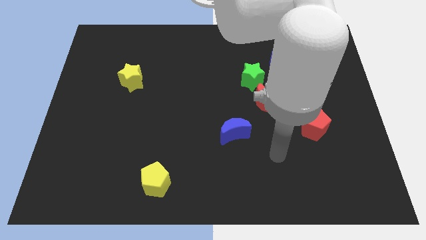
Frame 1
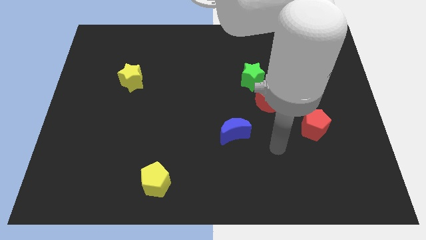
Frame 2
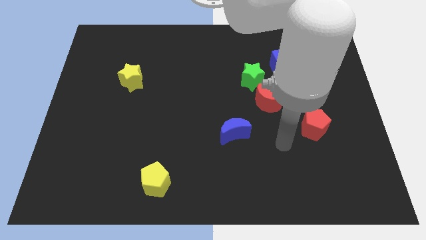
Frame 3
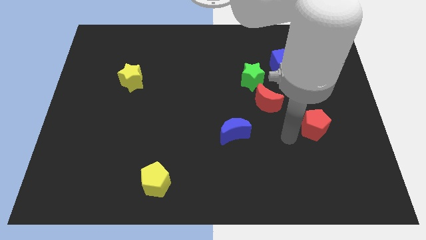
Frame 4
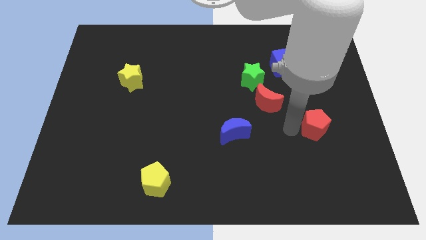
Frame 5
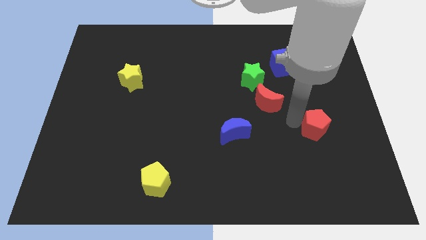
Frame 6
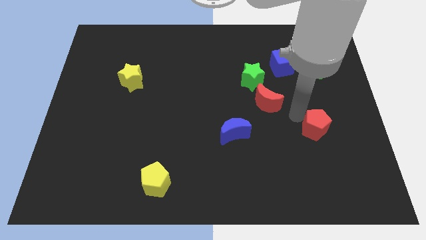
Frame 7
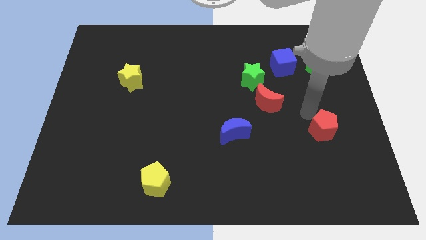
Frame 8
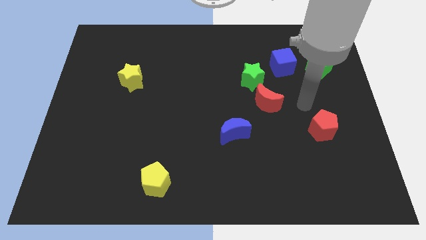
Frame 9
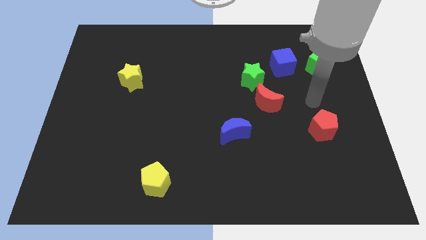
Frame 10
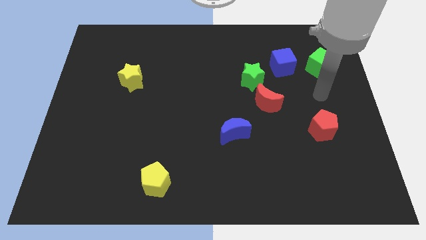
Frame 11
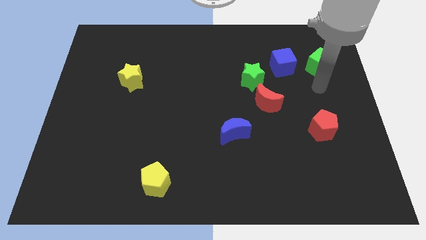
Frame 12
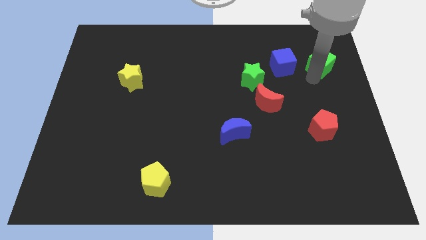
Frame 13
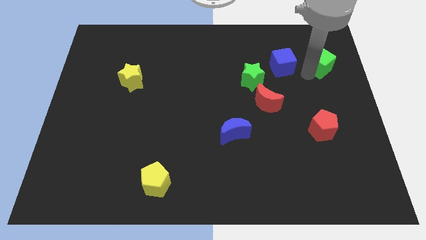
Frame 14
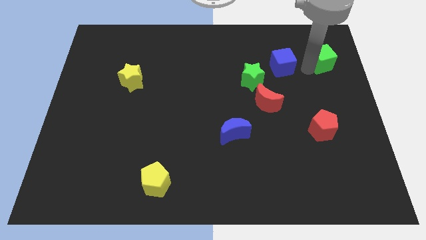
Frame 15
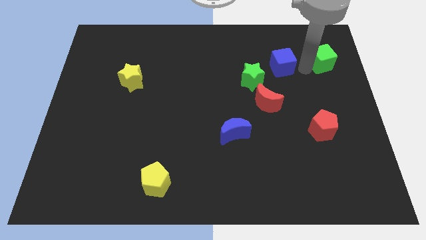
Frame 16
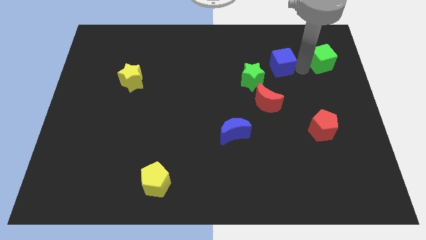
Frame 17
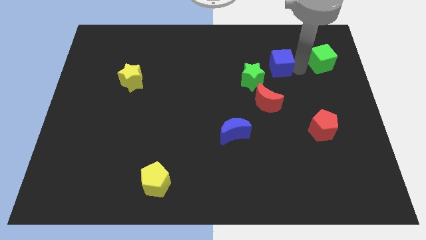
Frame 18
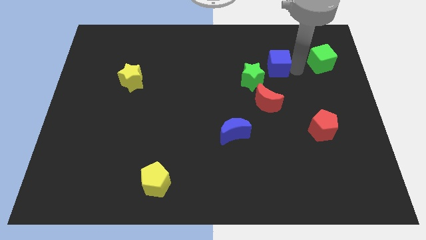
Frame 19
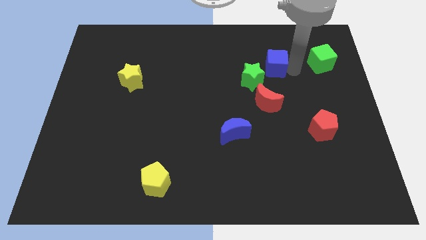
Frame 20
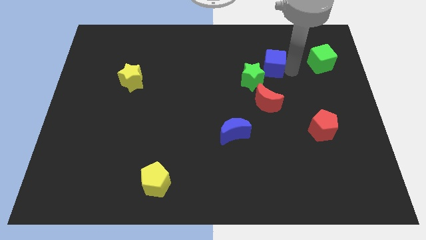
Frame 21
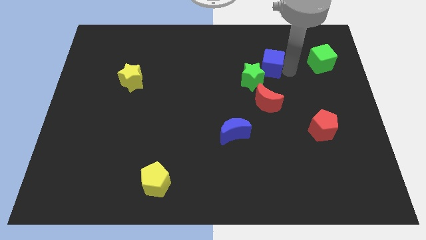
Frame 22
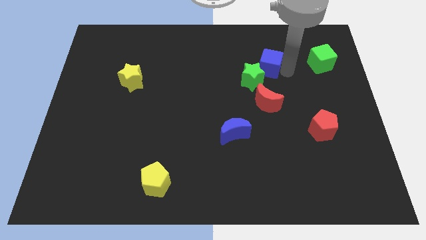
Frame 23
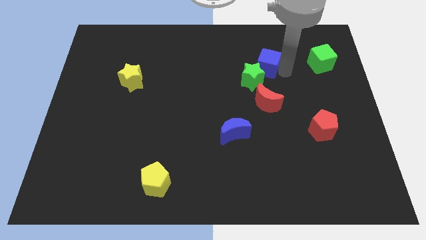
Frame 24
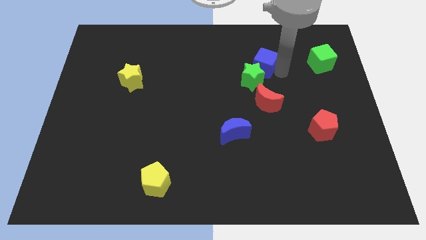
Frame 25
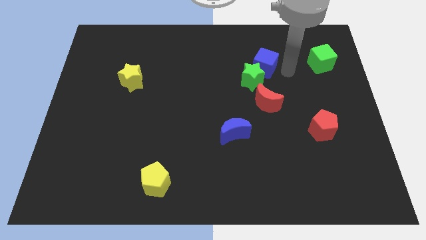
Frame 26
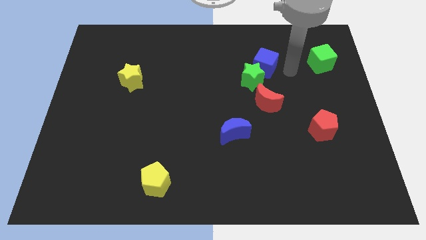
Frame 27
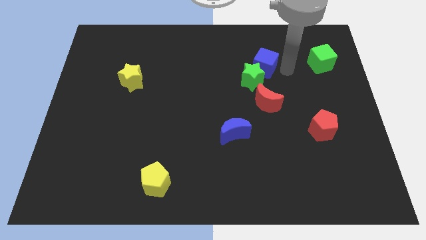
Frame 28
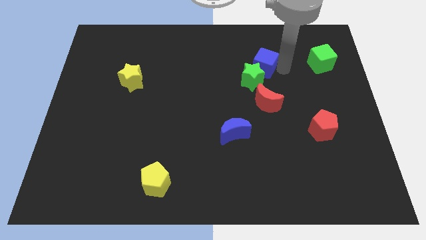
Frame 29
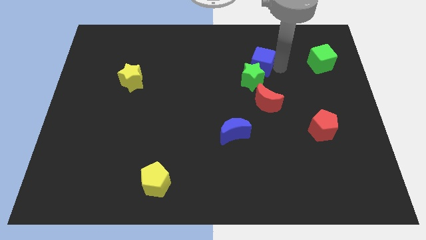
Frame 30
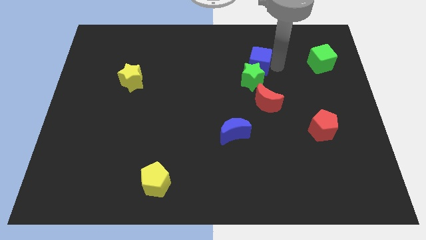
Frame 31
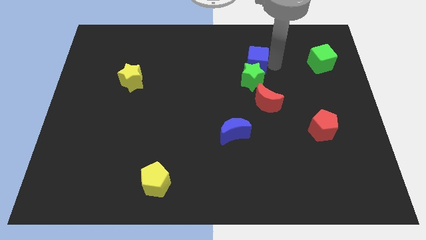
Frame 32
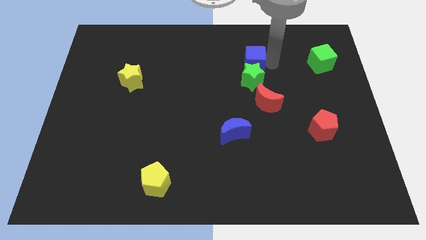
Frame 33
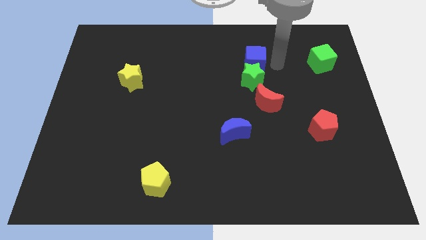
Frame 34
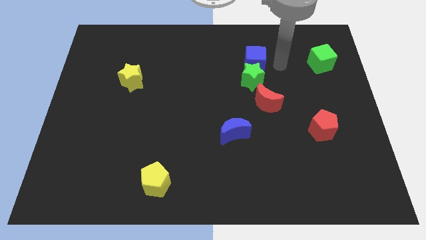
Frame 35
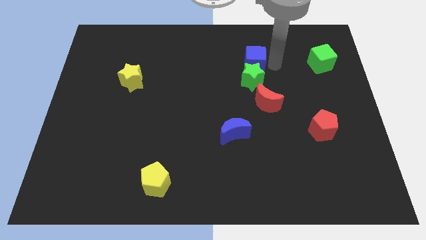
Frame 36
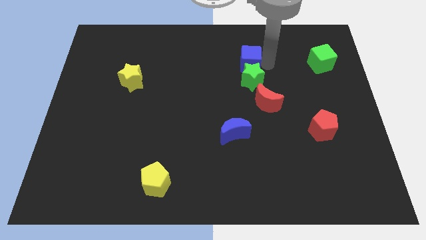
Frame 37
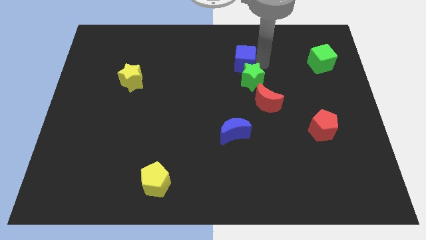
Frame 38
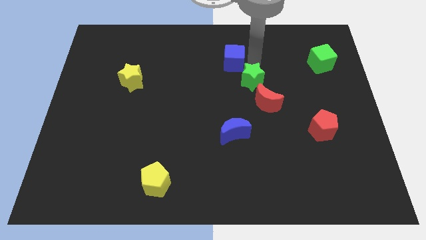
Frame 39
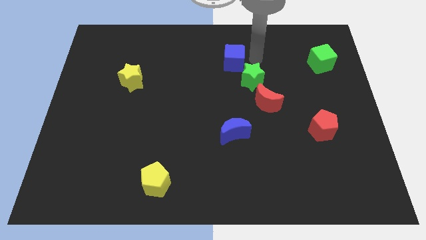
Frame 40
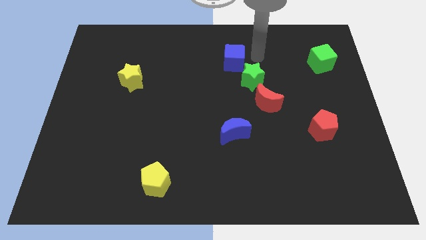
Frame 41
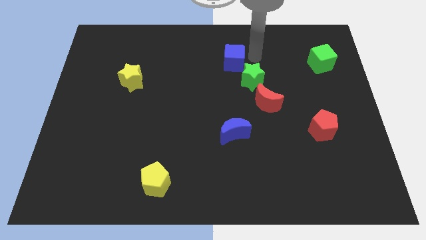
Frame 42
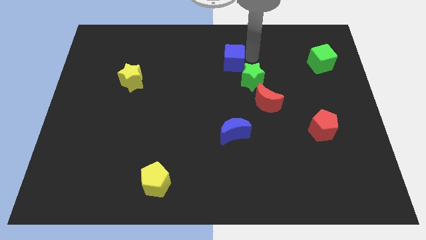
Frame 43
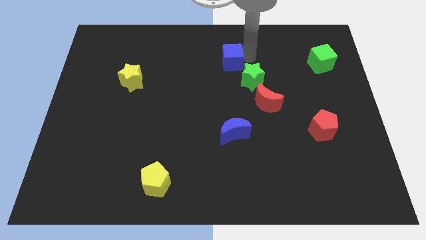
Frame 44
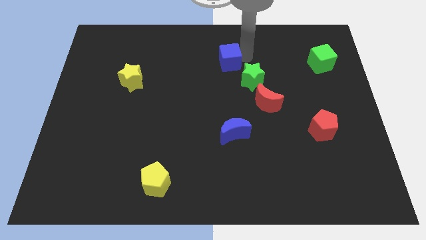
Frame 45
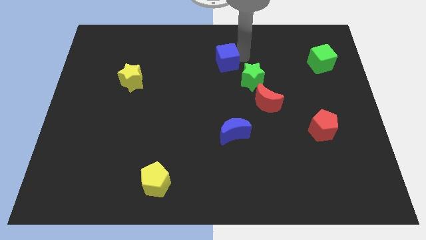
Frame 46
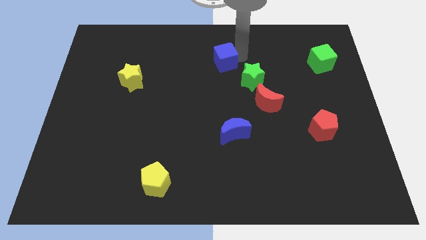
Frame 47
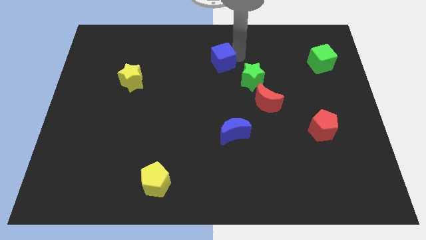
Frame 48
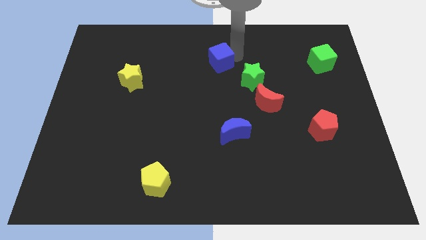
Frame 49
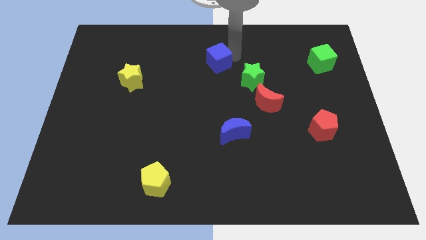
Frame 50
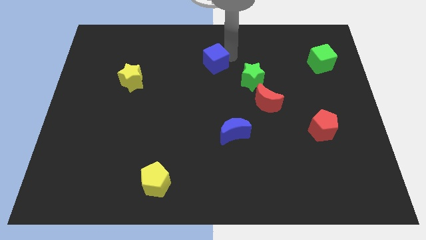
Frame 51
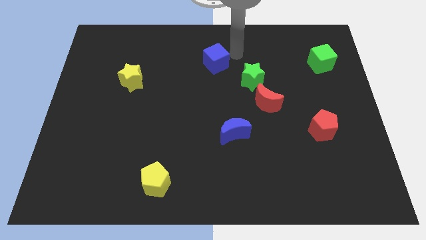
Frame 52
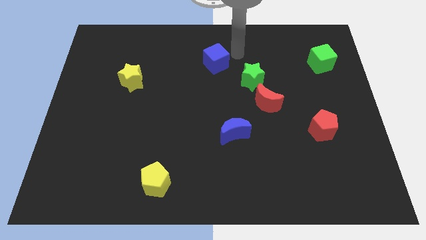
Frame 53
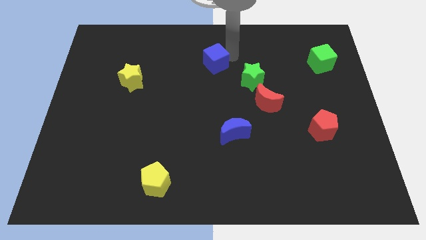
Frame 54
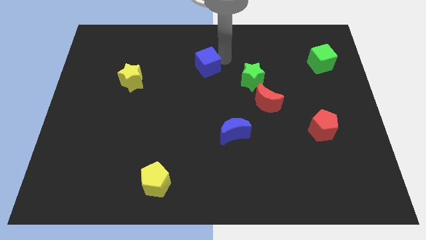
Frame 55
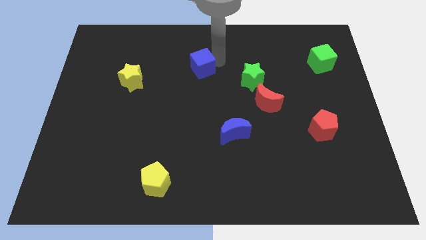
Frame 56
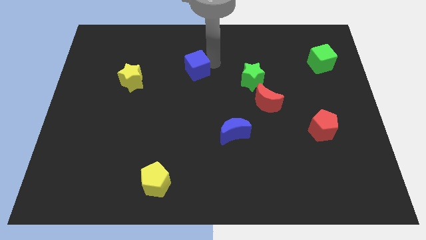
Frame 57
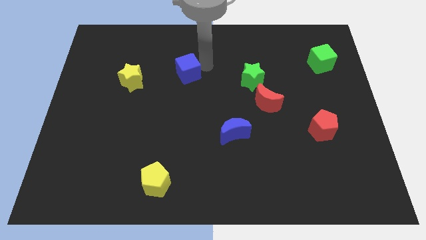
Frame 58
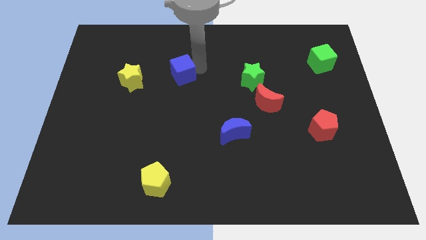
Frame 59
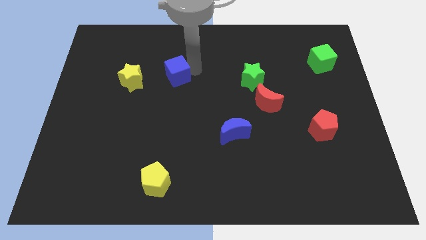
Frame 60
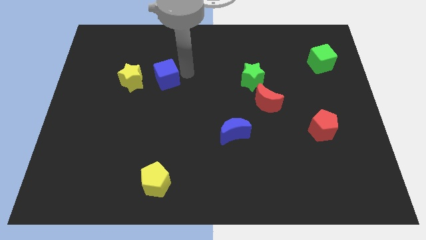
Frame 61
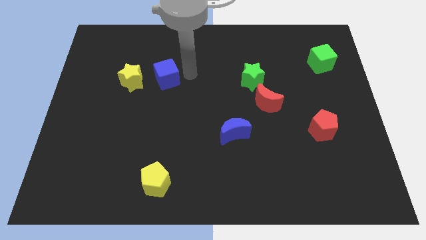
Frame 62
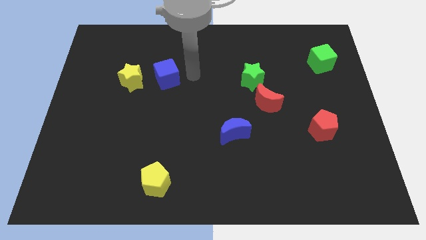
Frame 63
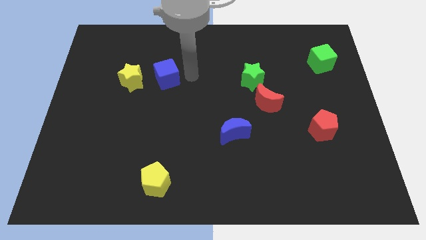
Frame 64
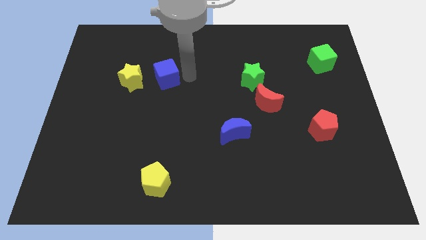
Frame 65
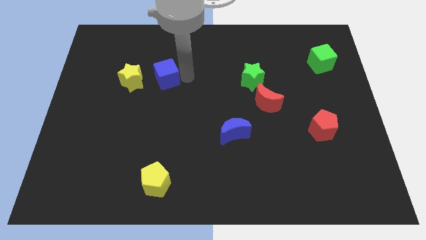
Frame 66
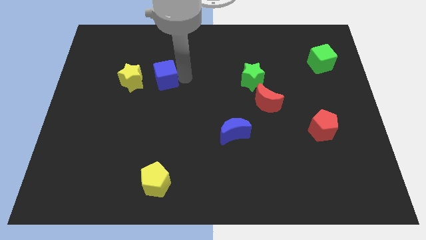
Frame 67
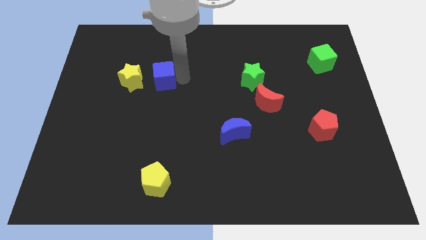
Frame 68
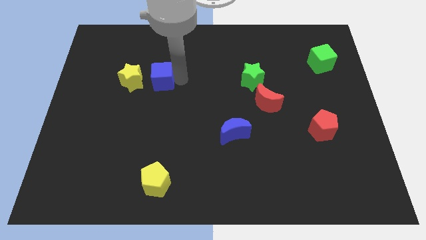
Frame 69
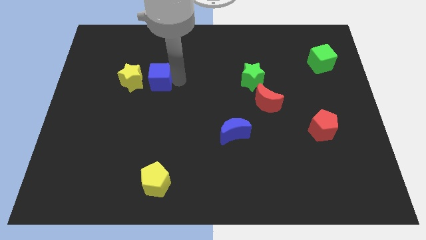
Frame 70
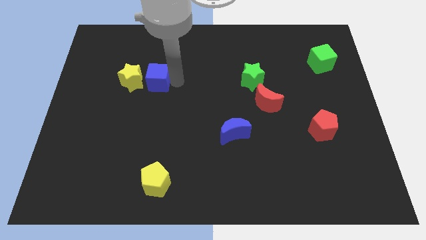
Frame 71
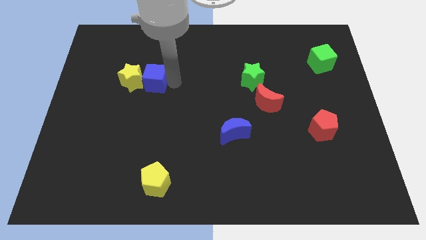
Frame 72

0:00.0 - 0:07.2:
slide the blue cube close to the yellow star
